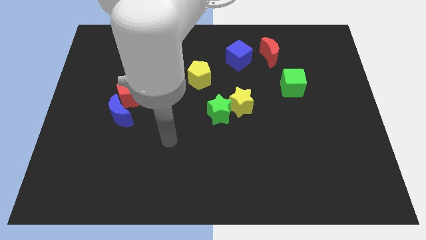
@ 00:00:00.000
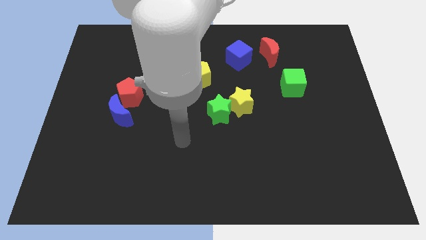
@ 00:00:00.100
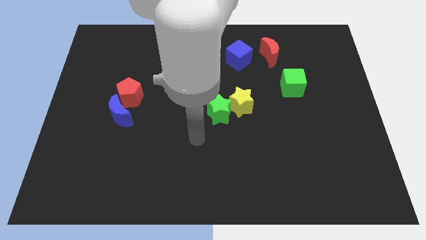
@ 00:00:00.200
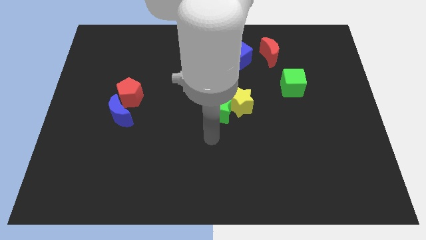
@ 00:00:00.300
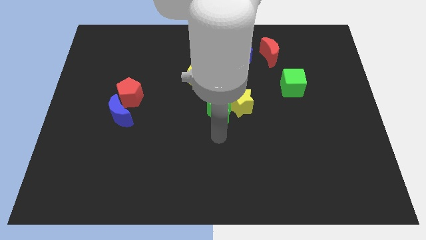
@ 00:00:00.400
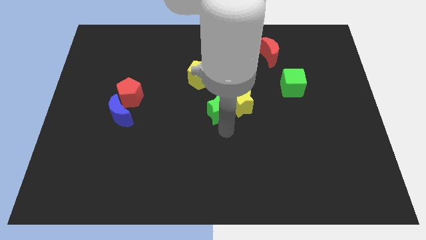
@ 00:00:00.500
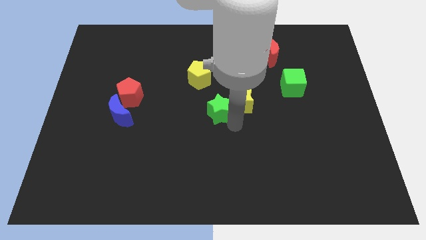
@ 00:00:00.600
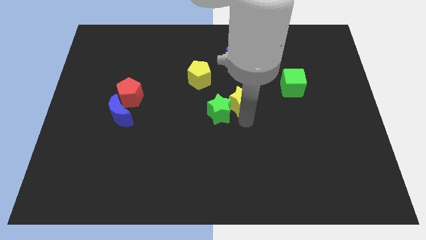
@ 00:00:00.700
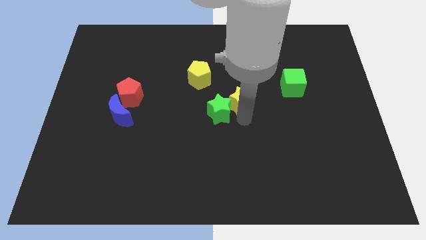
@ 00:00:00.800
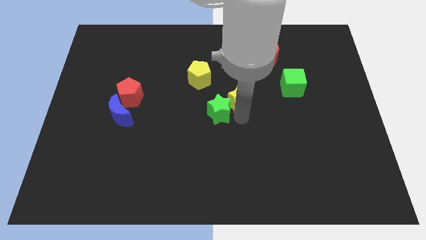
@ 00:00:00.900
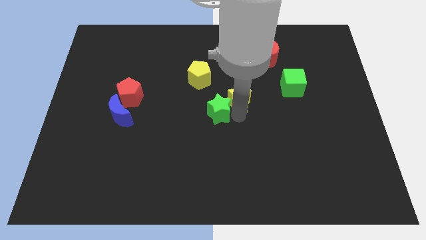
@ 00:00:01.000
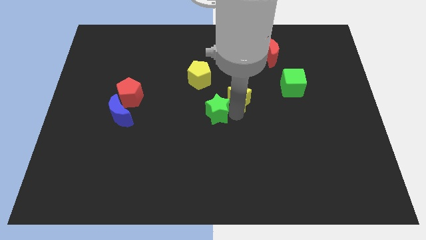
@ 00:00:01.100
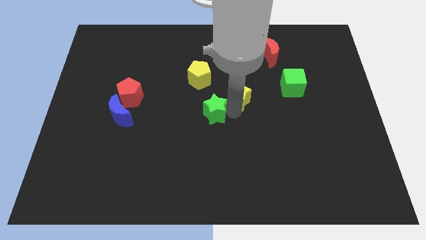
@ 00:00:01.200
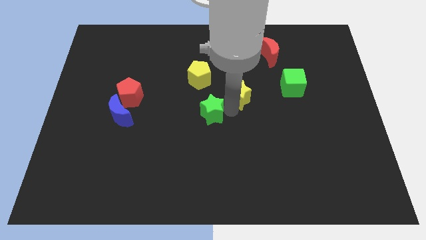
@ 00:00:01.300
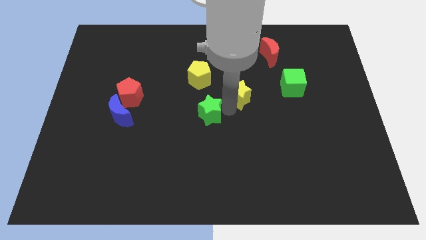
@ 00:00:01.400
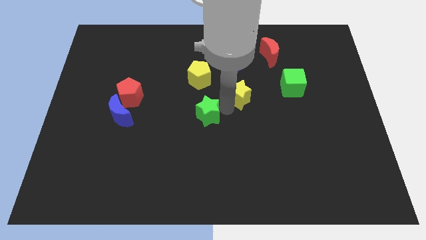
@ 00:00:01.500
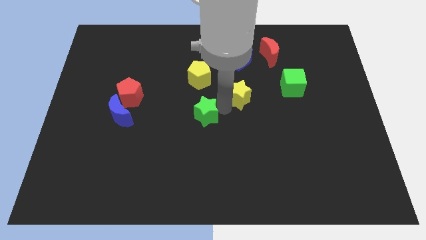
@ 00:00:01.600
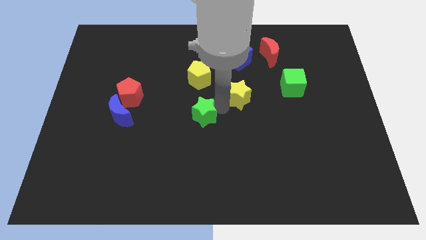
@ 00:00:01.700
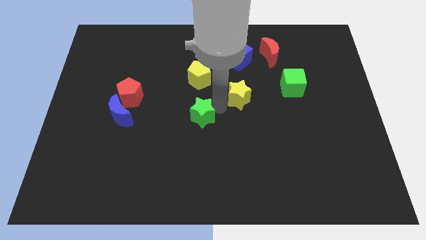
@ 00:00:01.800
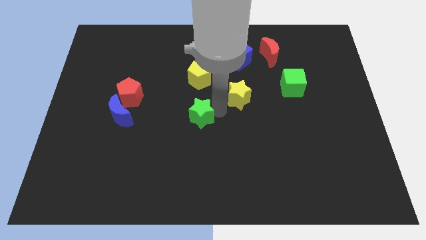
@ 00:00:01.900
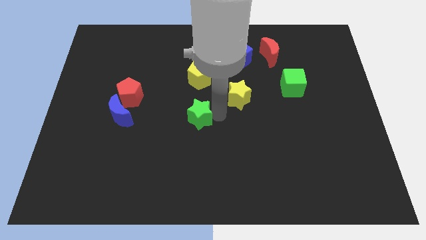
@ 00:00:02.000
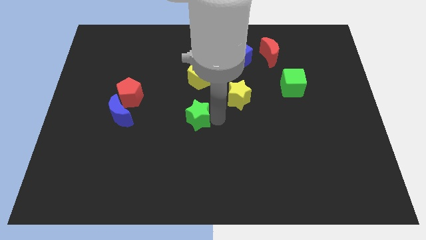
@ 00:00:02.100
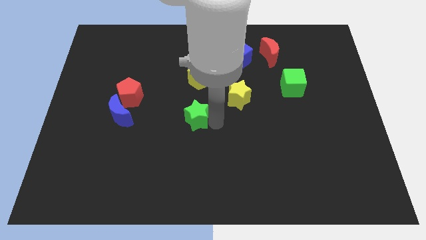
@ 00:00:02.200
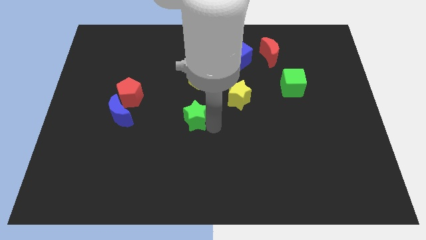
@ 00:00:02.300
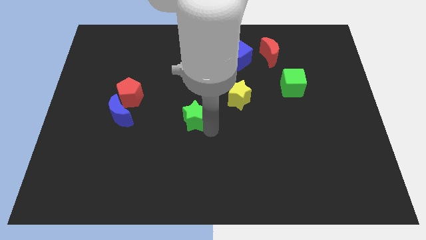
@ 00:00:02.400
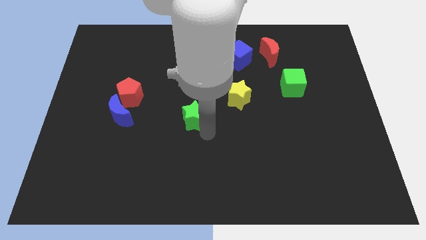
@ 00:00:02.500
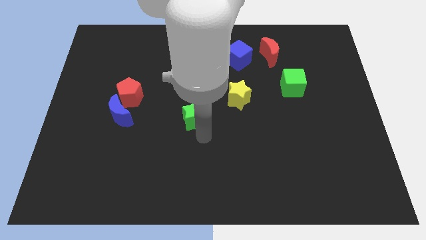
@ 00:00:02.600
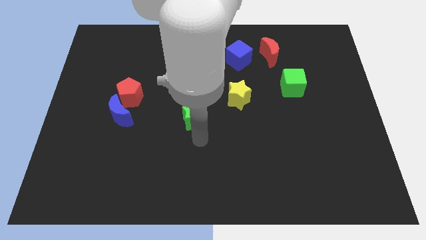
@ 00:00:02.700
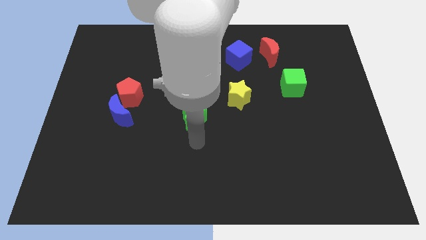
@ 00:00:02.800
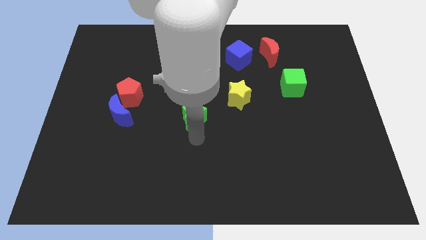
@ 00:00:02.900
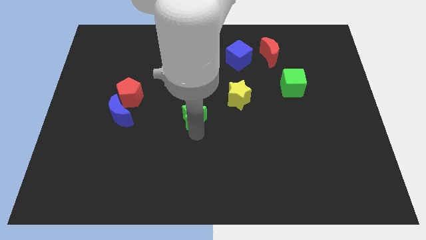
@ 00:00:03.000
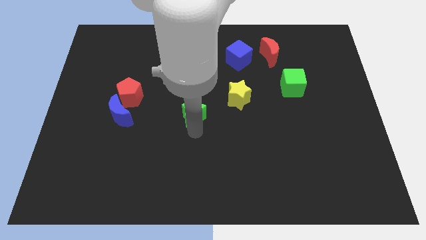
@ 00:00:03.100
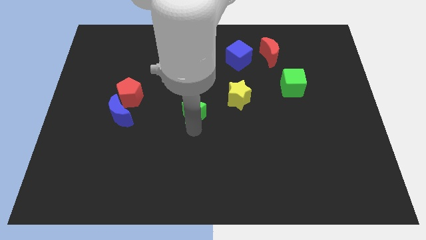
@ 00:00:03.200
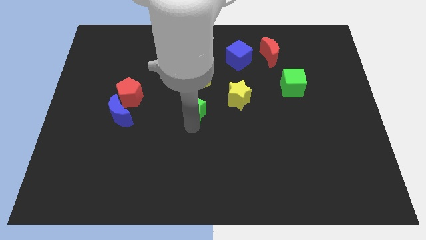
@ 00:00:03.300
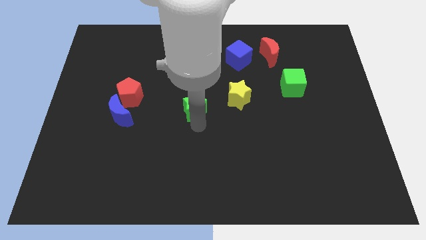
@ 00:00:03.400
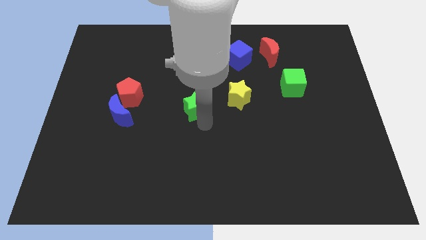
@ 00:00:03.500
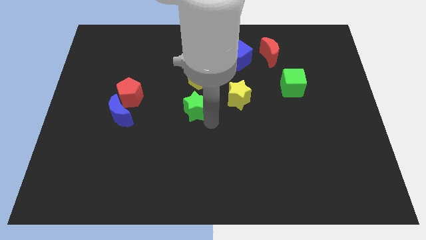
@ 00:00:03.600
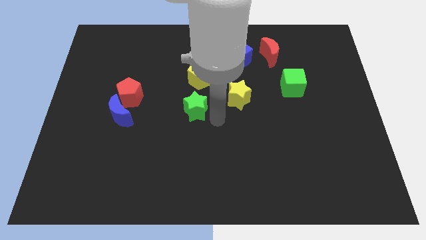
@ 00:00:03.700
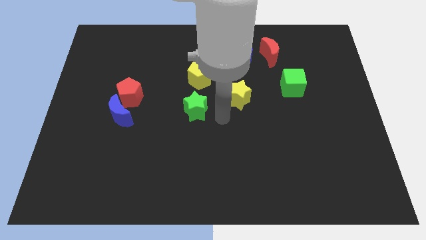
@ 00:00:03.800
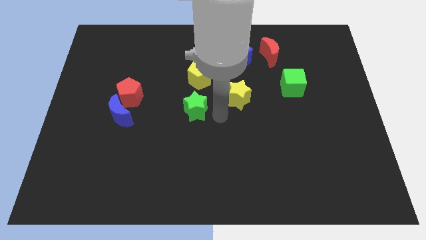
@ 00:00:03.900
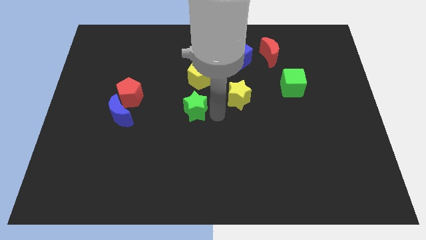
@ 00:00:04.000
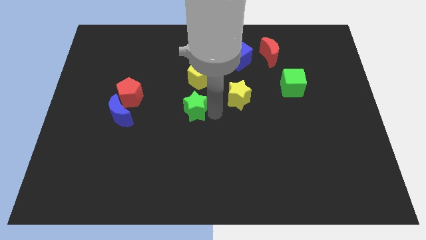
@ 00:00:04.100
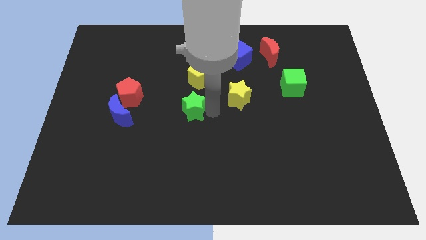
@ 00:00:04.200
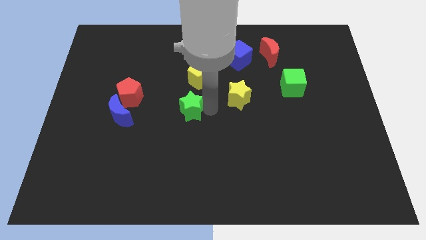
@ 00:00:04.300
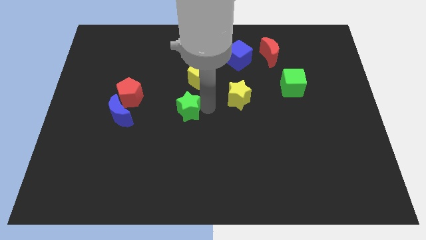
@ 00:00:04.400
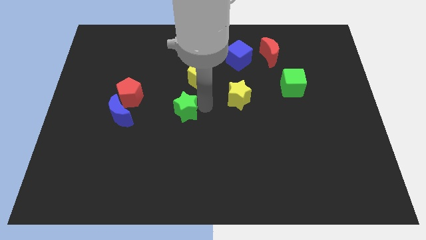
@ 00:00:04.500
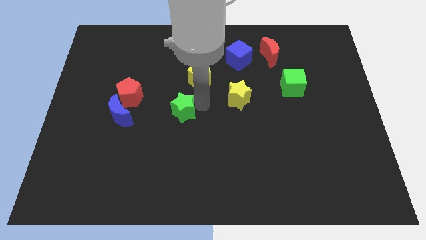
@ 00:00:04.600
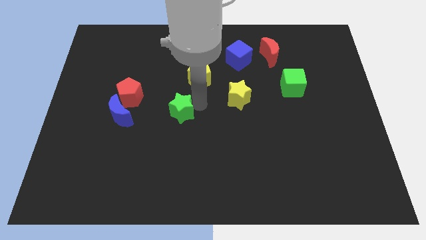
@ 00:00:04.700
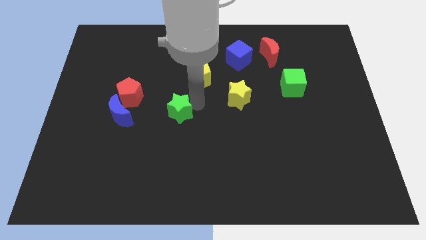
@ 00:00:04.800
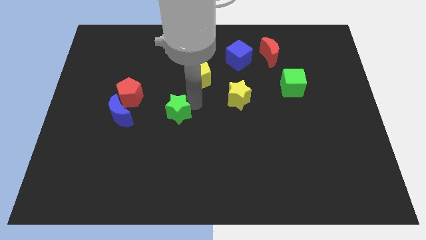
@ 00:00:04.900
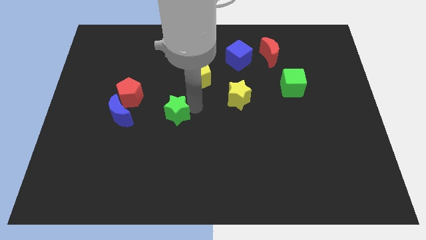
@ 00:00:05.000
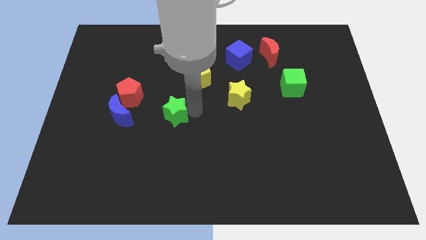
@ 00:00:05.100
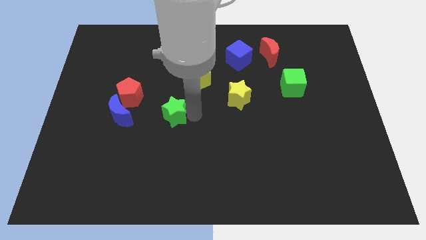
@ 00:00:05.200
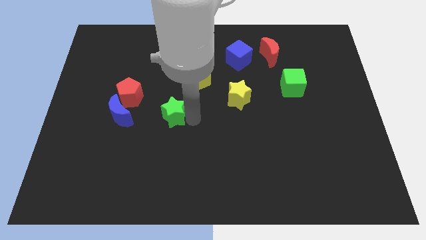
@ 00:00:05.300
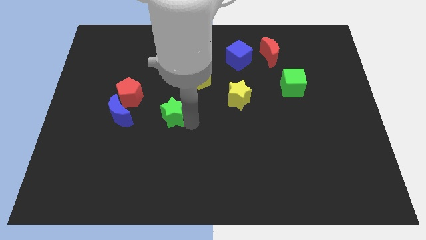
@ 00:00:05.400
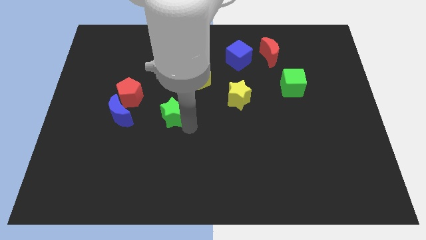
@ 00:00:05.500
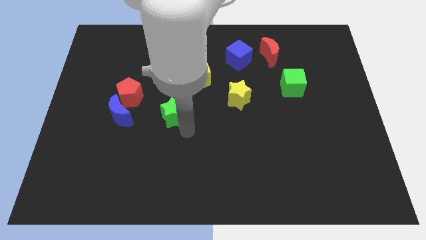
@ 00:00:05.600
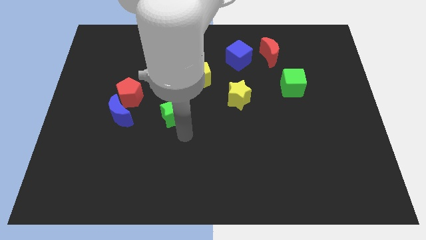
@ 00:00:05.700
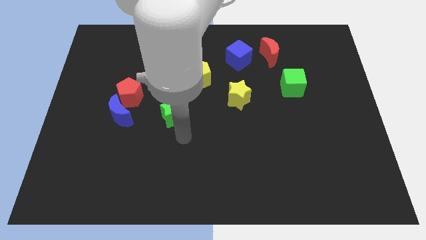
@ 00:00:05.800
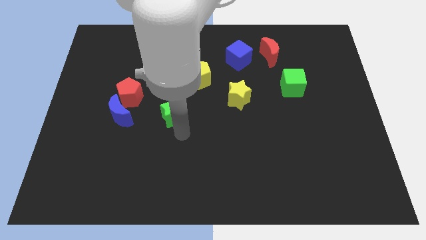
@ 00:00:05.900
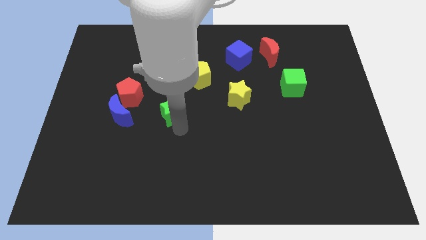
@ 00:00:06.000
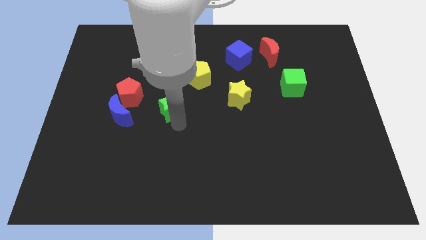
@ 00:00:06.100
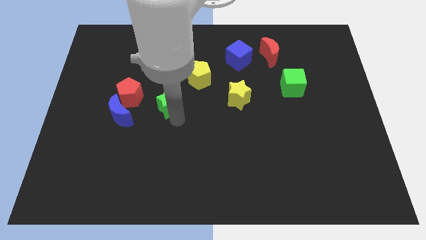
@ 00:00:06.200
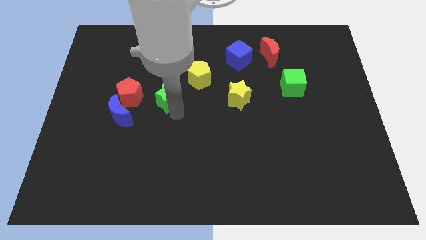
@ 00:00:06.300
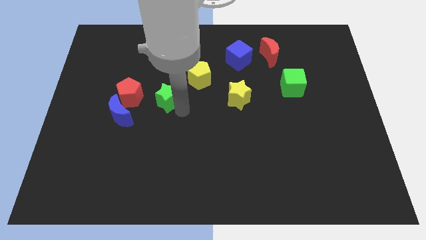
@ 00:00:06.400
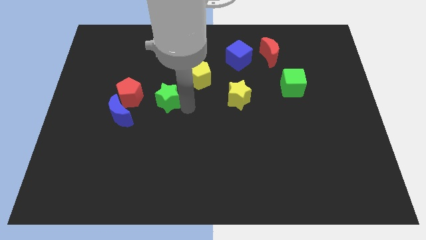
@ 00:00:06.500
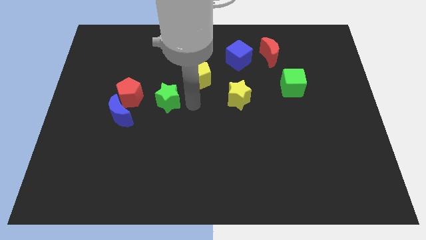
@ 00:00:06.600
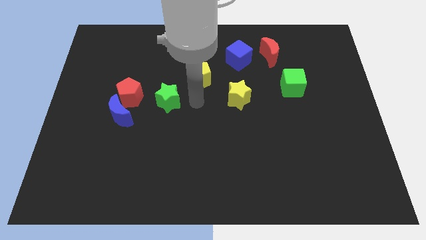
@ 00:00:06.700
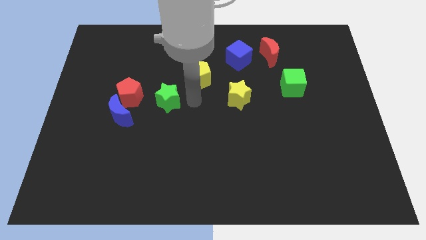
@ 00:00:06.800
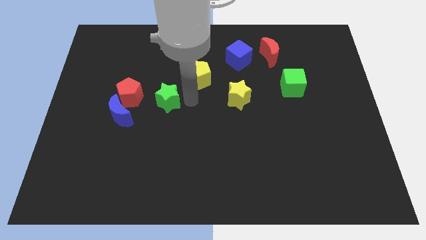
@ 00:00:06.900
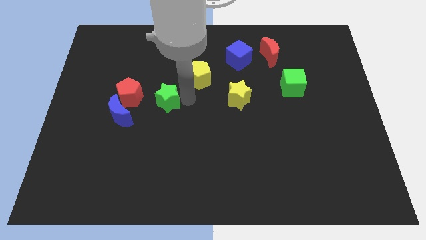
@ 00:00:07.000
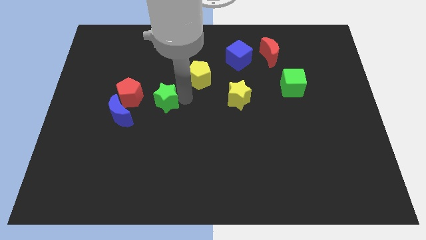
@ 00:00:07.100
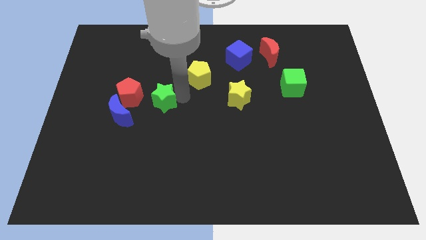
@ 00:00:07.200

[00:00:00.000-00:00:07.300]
push the green star to the top right side of the blue moon

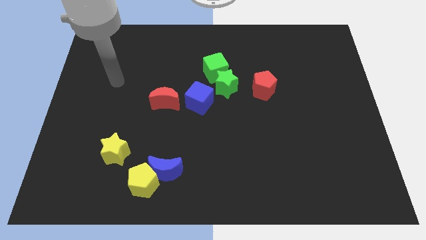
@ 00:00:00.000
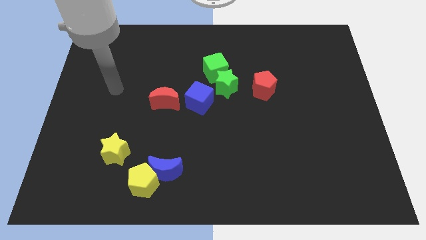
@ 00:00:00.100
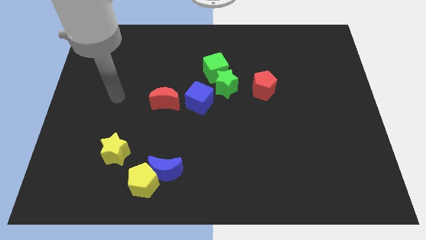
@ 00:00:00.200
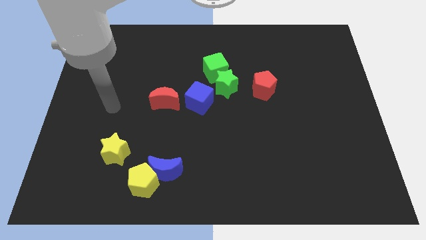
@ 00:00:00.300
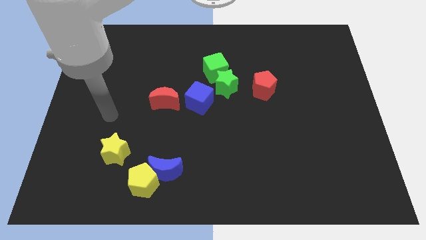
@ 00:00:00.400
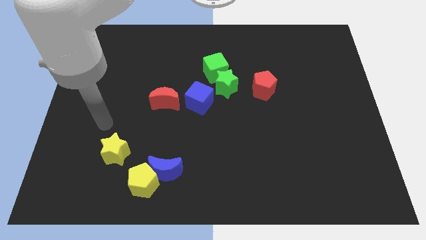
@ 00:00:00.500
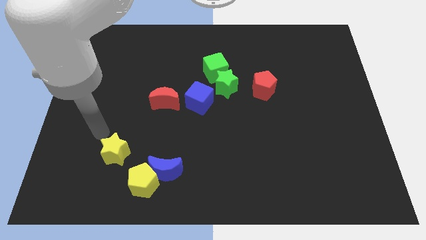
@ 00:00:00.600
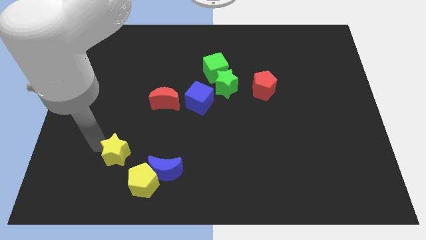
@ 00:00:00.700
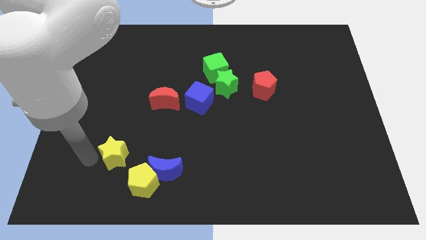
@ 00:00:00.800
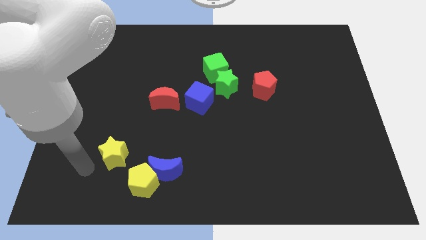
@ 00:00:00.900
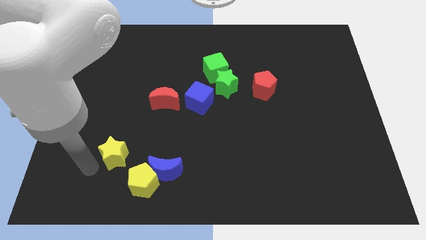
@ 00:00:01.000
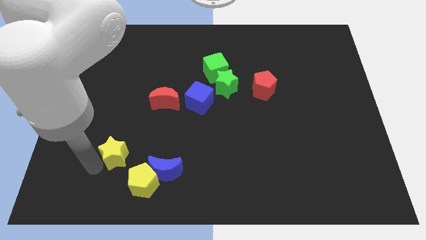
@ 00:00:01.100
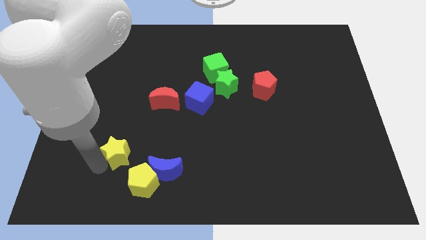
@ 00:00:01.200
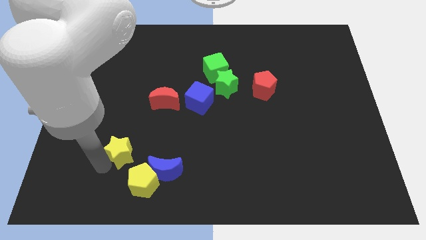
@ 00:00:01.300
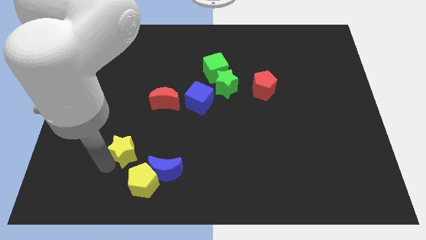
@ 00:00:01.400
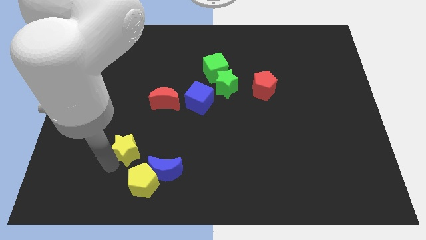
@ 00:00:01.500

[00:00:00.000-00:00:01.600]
push the yellow star above the yellow pentagon
